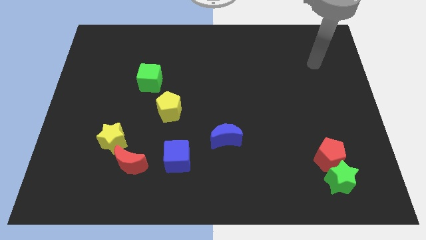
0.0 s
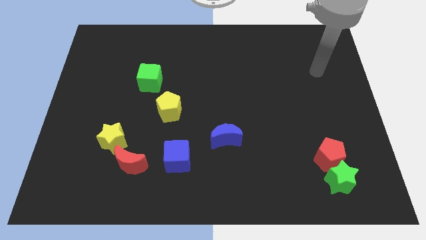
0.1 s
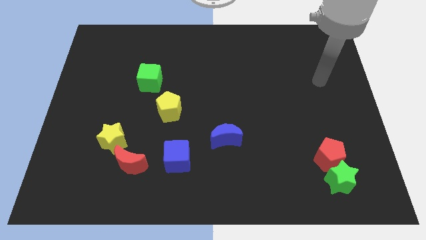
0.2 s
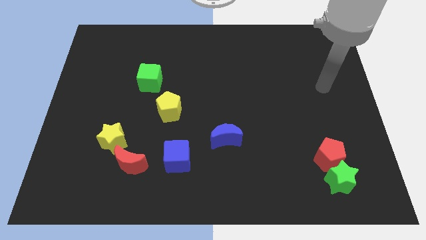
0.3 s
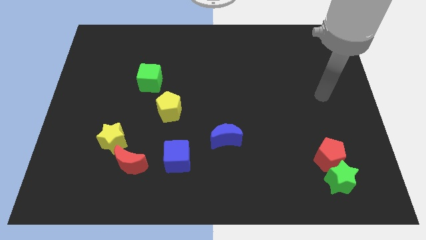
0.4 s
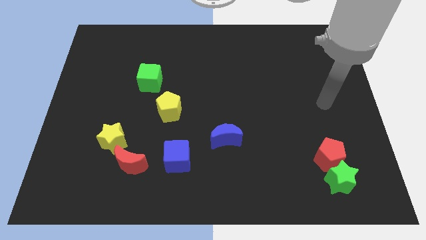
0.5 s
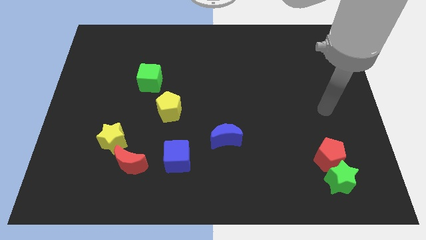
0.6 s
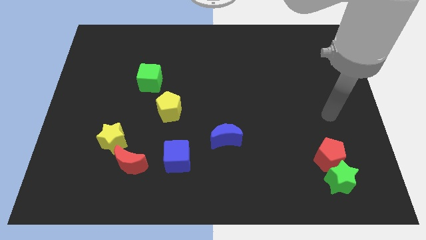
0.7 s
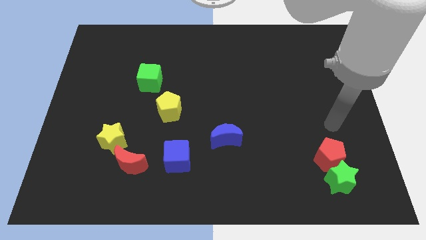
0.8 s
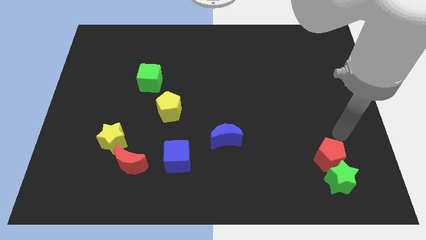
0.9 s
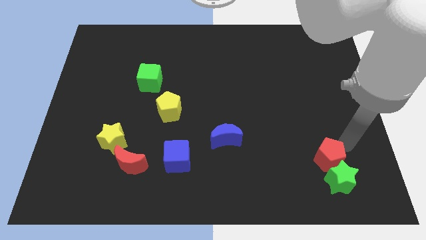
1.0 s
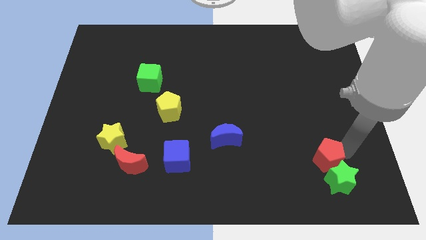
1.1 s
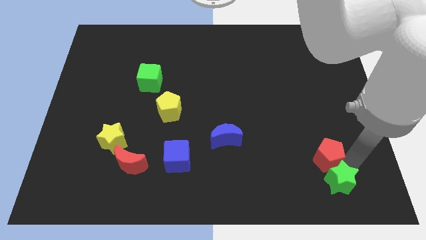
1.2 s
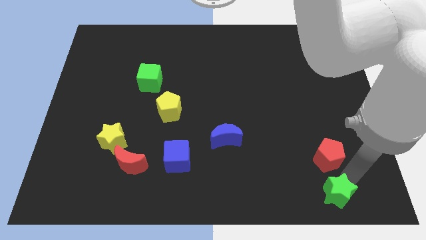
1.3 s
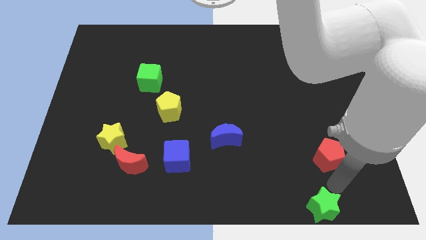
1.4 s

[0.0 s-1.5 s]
move the red pentagon away from the green star

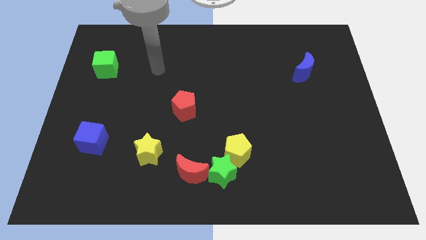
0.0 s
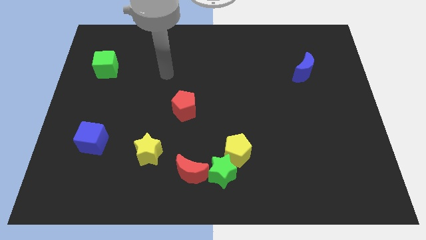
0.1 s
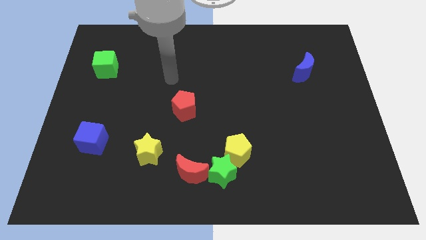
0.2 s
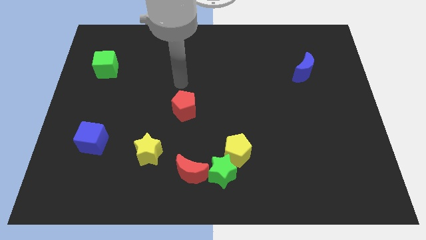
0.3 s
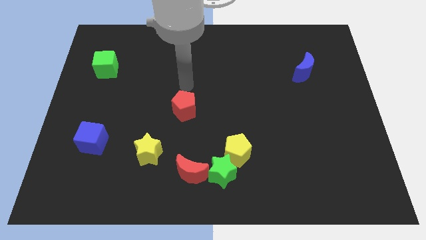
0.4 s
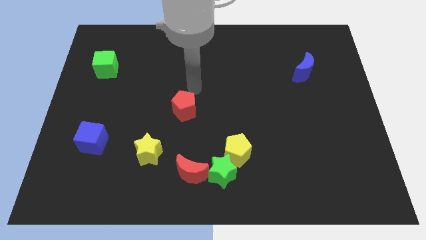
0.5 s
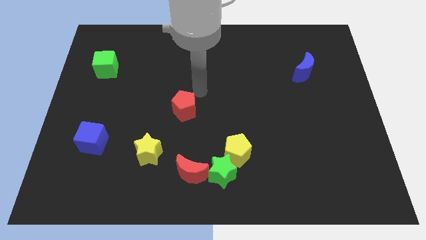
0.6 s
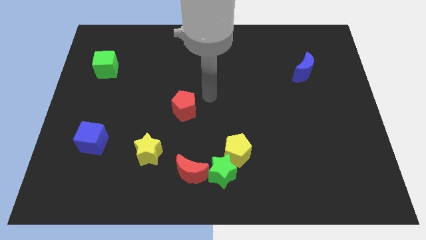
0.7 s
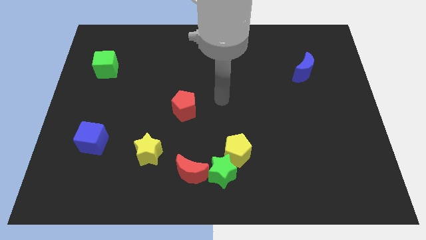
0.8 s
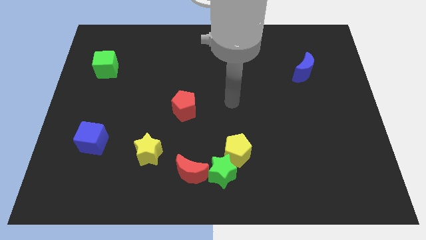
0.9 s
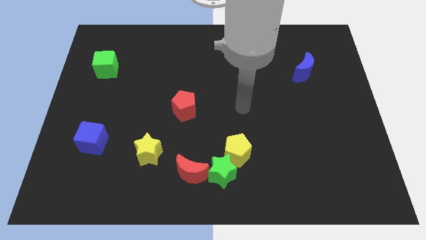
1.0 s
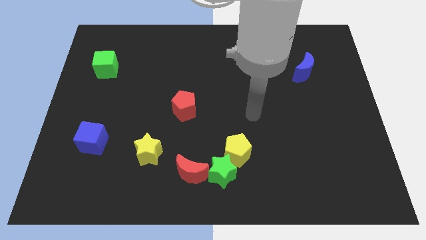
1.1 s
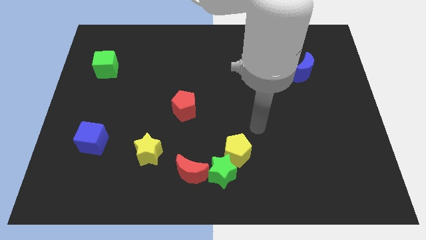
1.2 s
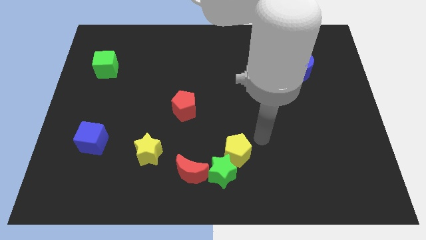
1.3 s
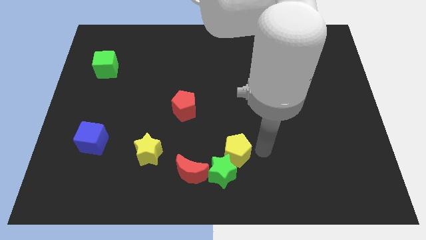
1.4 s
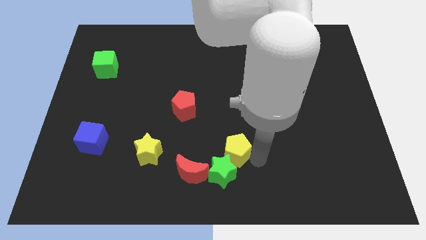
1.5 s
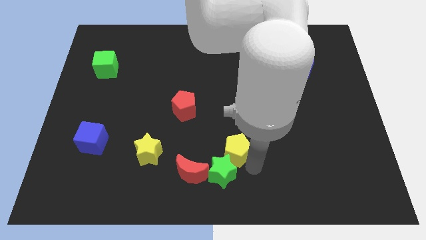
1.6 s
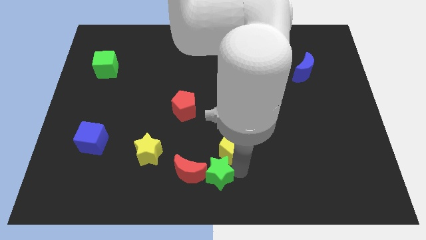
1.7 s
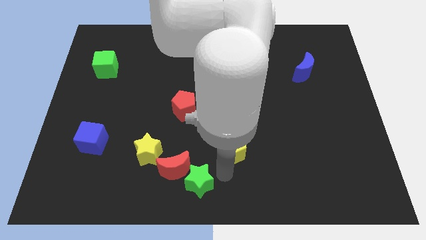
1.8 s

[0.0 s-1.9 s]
pull the yellow pentagon apart from the green star

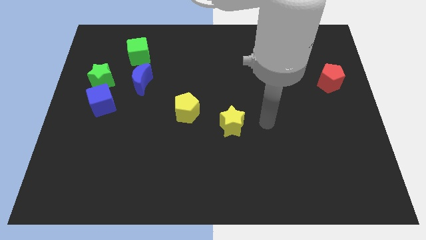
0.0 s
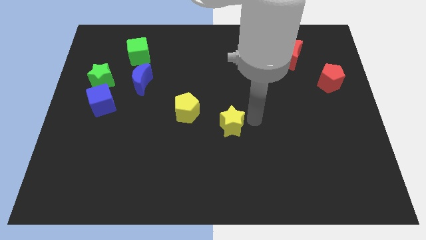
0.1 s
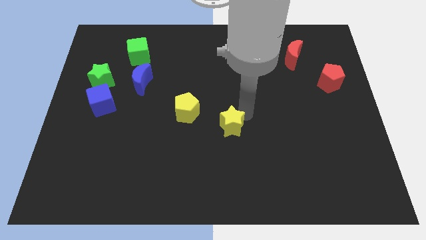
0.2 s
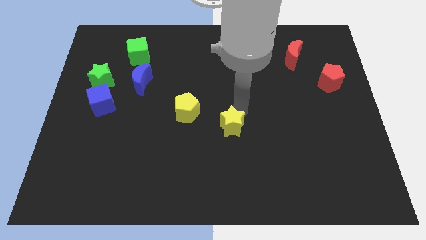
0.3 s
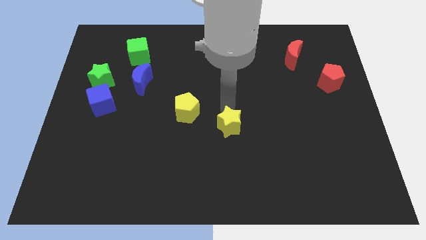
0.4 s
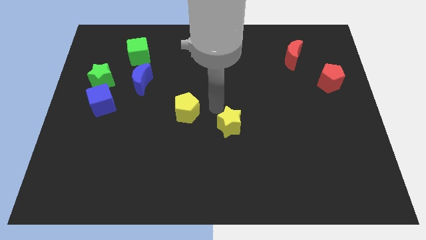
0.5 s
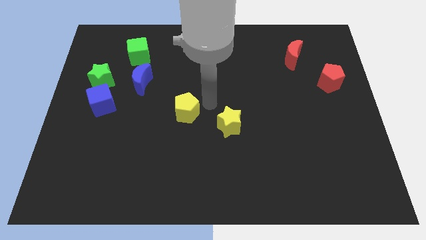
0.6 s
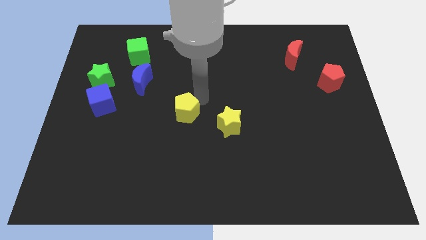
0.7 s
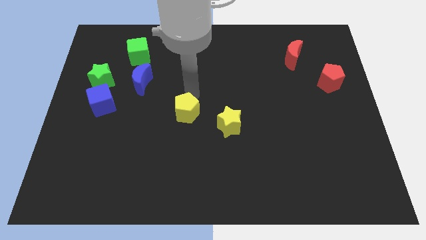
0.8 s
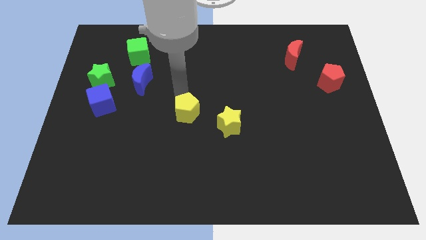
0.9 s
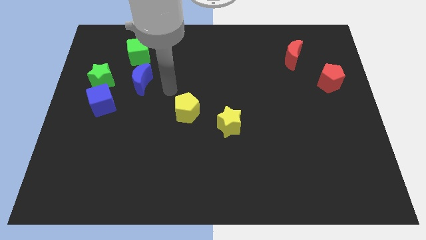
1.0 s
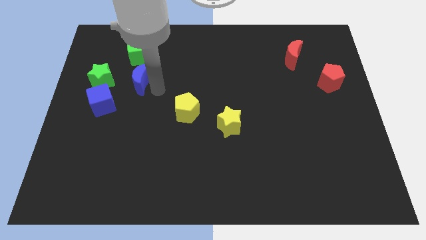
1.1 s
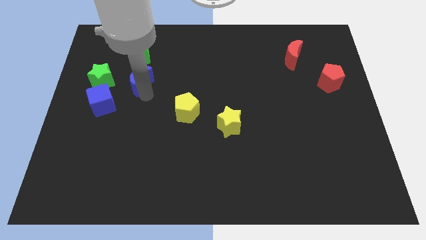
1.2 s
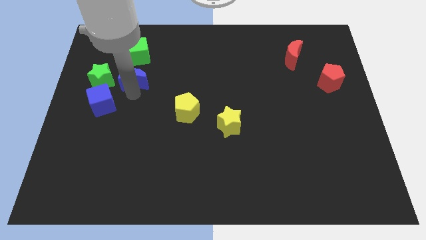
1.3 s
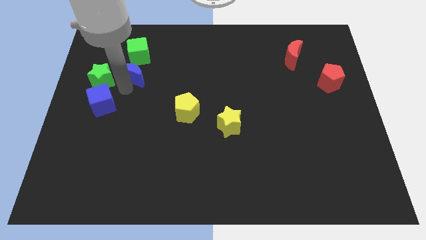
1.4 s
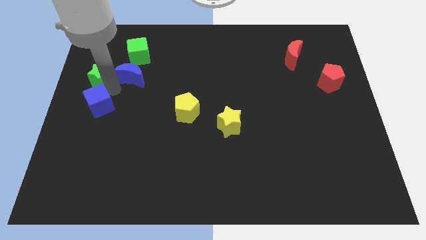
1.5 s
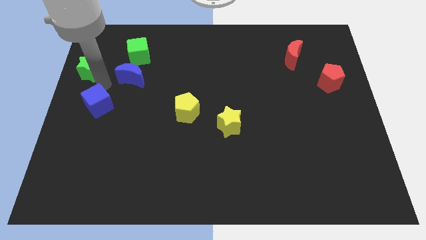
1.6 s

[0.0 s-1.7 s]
separate the blue cube from the green star

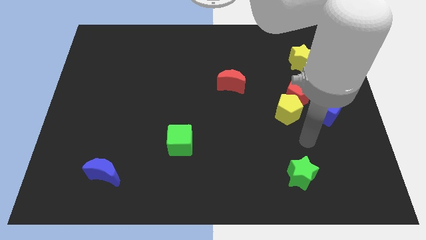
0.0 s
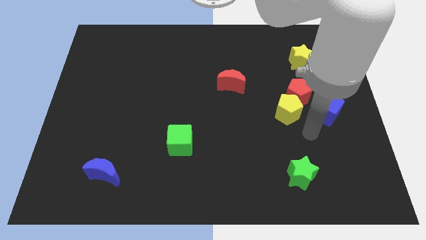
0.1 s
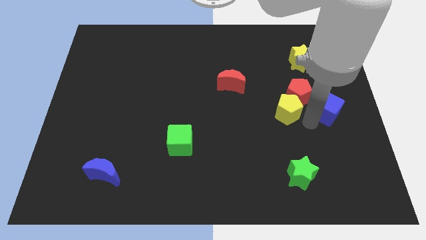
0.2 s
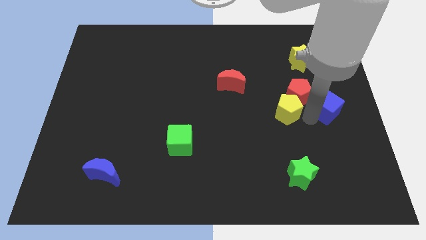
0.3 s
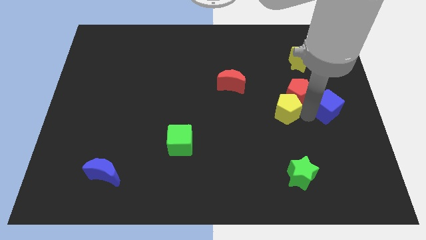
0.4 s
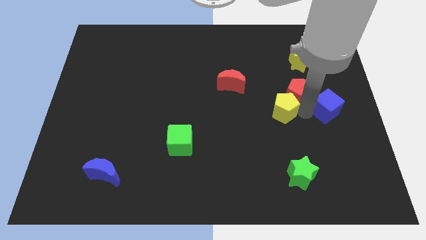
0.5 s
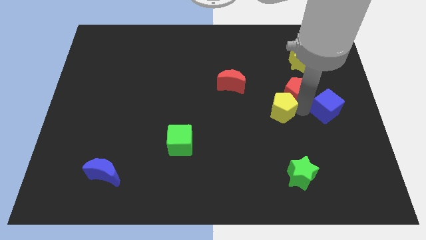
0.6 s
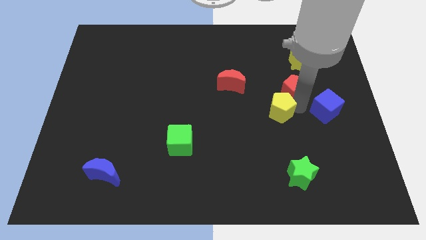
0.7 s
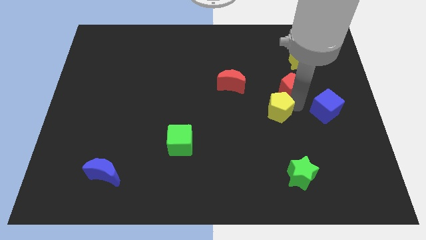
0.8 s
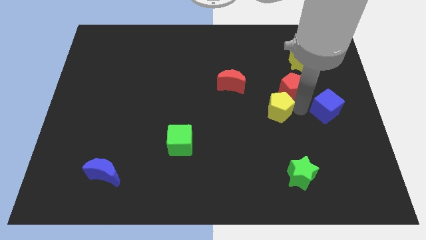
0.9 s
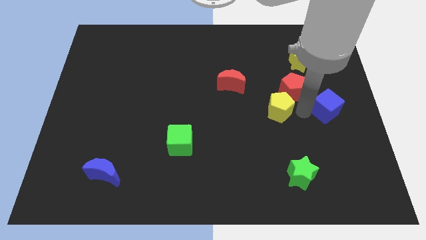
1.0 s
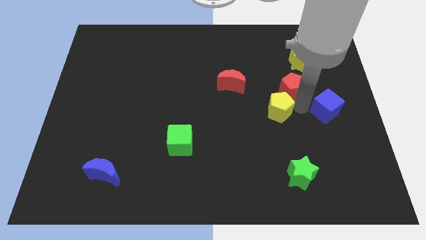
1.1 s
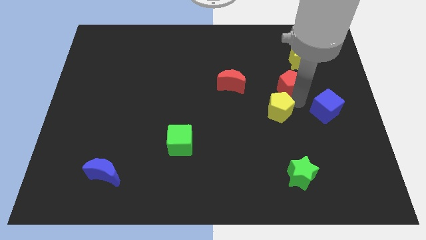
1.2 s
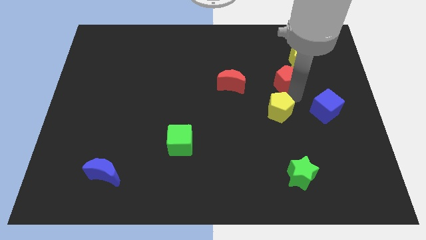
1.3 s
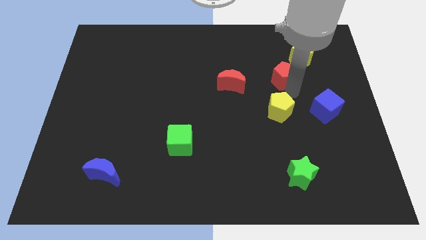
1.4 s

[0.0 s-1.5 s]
move the red pentagon away from the yellow pentagon and blue cube

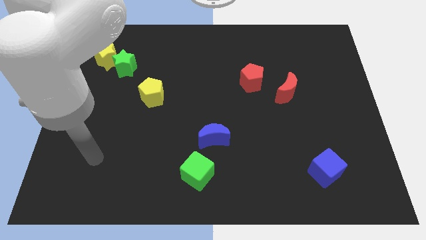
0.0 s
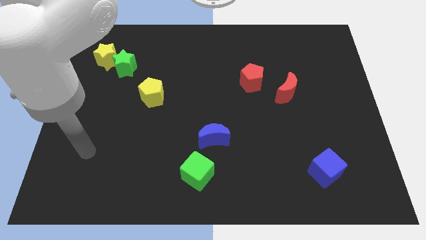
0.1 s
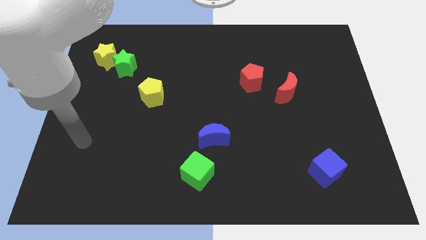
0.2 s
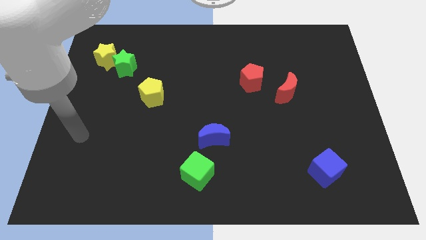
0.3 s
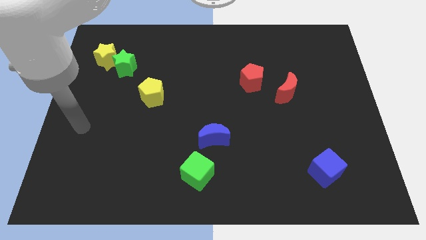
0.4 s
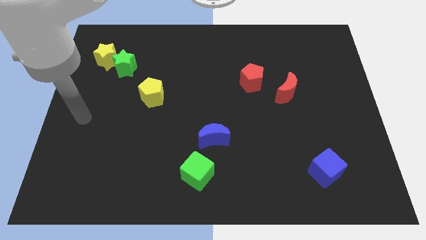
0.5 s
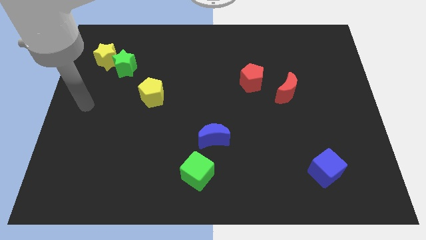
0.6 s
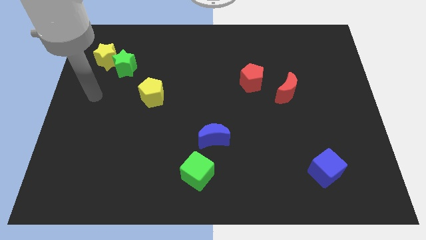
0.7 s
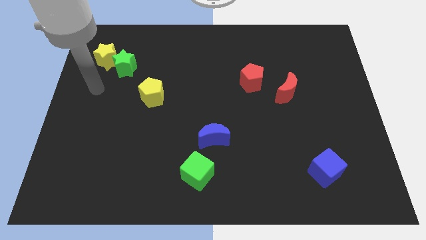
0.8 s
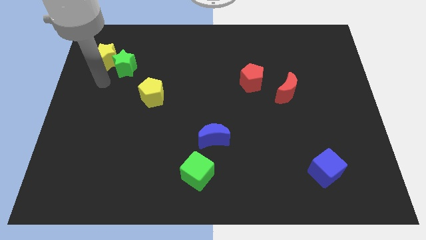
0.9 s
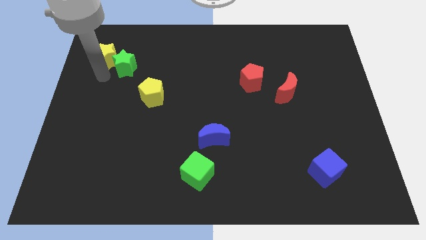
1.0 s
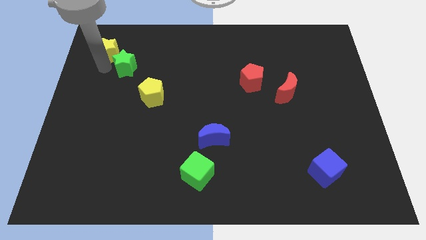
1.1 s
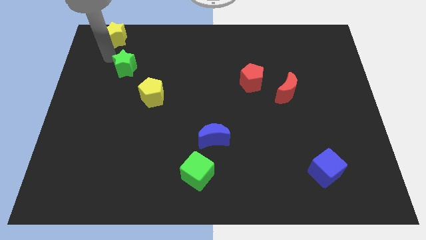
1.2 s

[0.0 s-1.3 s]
pull the green star apart from the yellow star

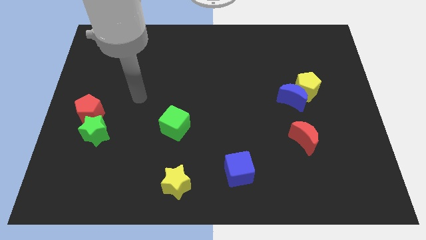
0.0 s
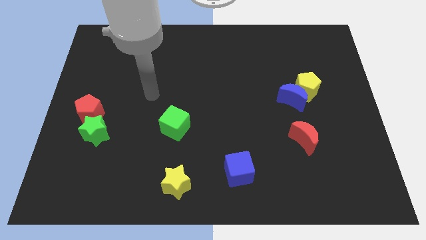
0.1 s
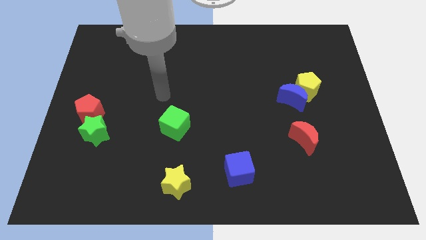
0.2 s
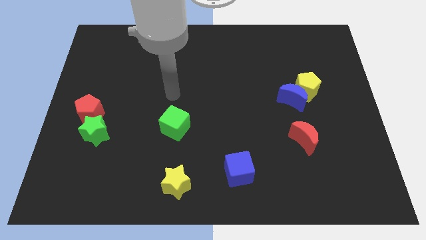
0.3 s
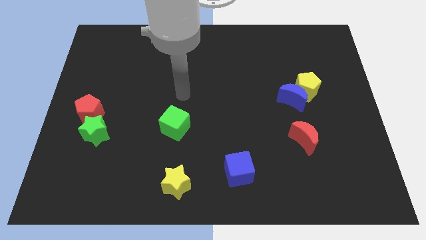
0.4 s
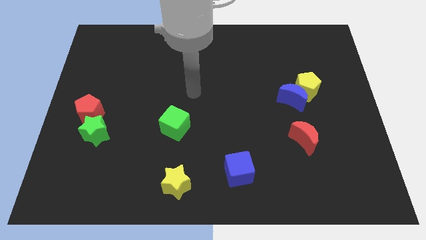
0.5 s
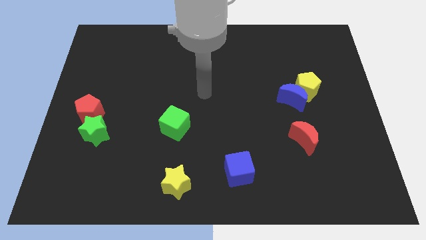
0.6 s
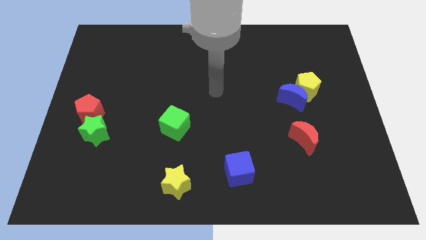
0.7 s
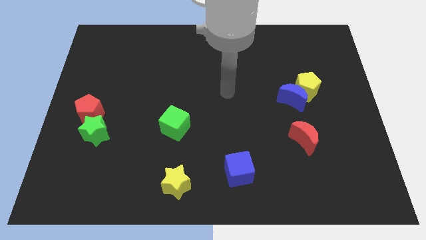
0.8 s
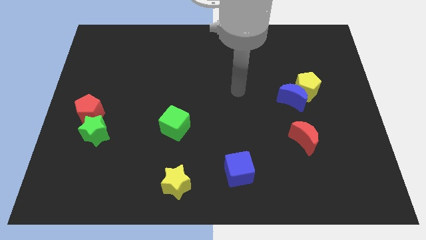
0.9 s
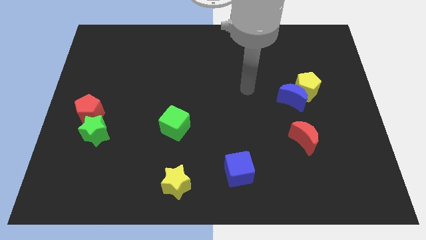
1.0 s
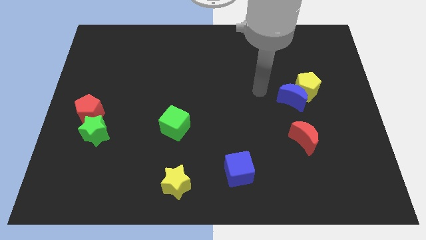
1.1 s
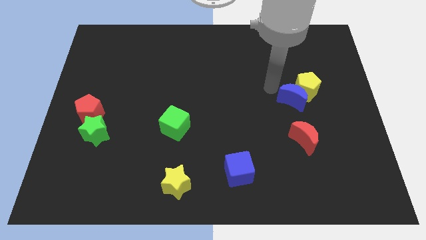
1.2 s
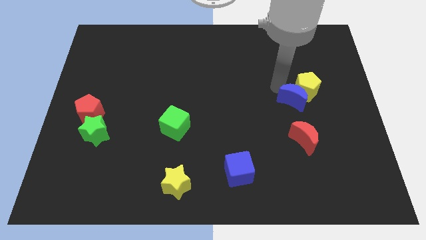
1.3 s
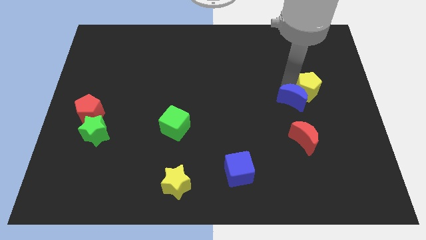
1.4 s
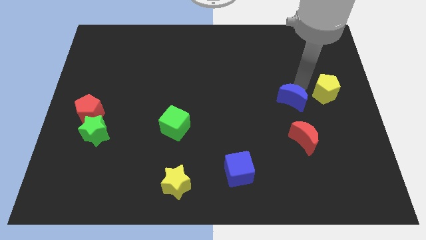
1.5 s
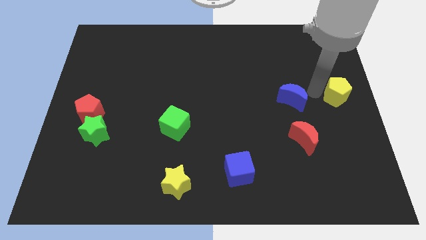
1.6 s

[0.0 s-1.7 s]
pull the blue moon apart from the yellow pentagon
